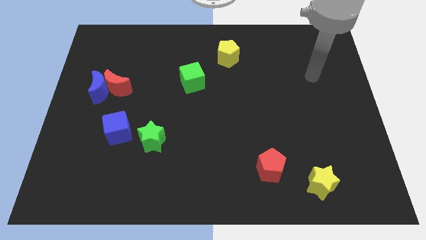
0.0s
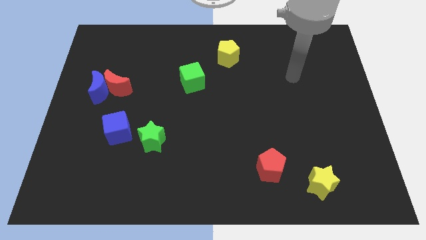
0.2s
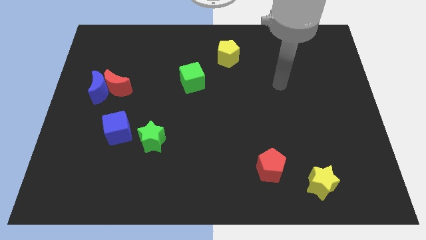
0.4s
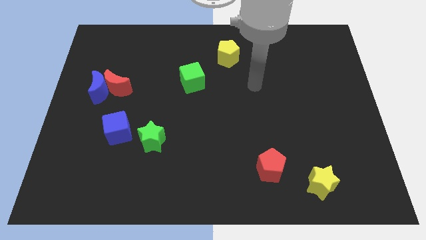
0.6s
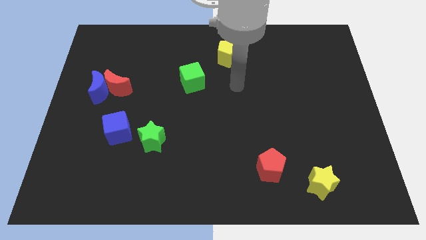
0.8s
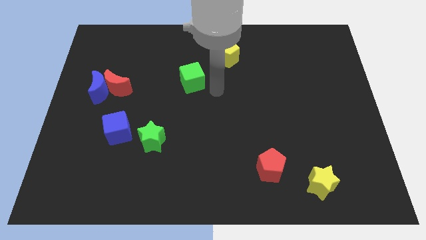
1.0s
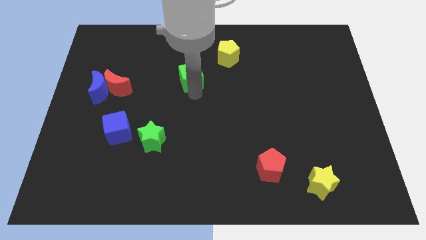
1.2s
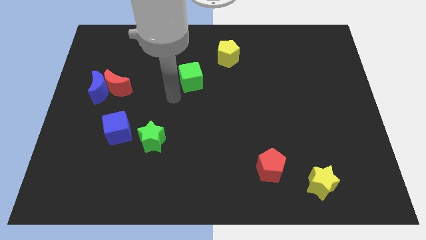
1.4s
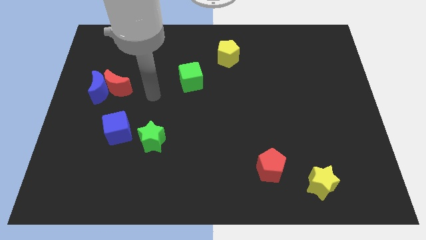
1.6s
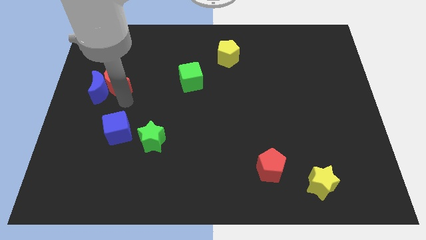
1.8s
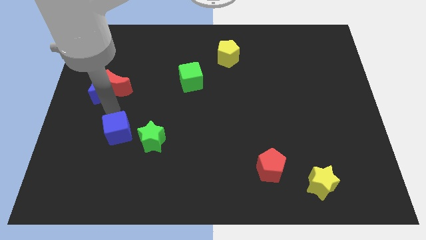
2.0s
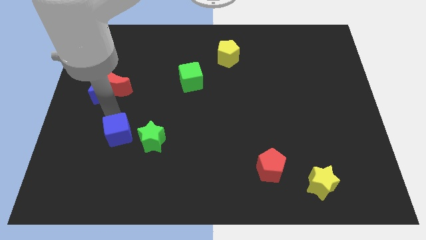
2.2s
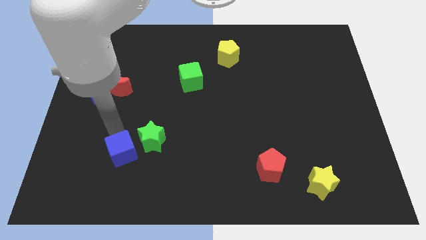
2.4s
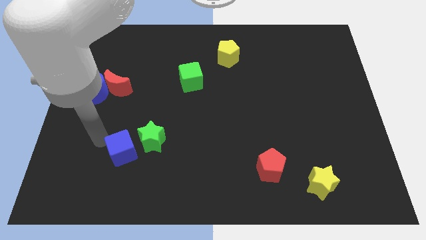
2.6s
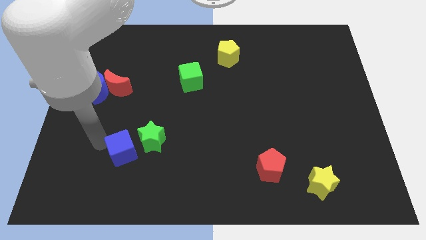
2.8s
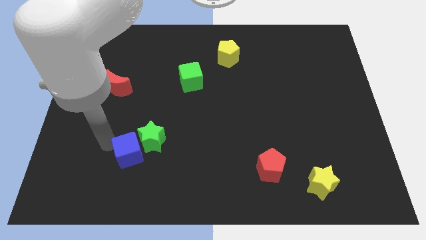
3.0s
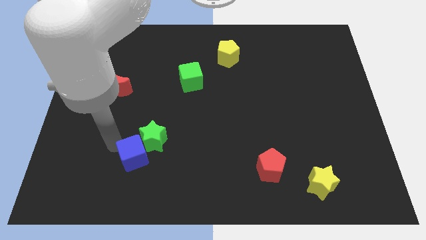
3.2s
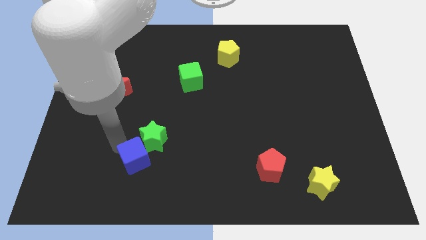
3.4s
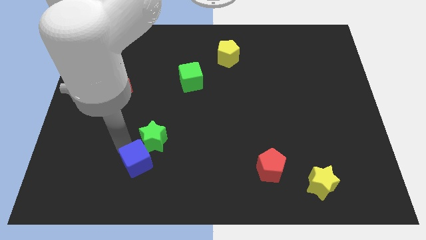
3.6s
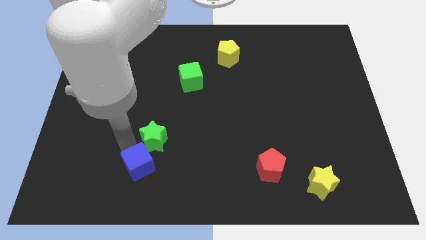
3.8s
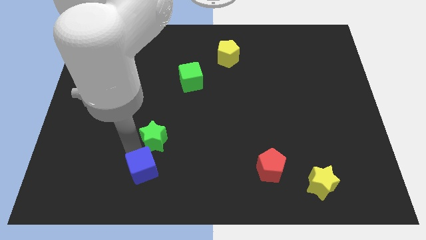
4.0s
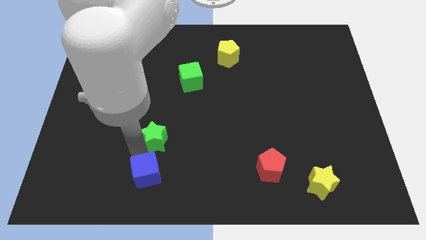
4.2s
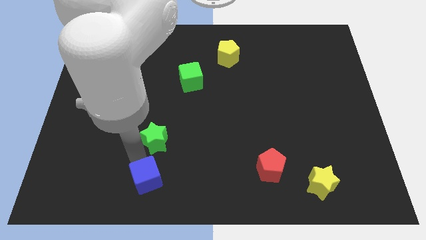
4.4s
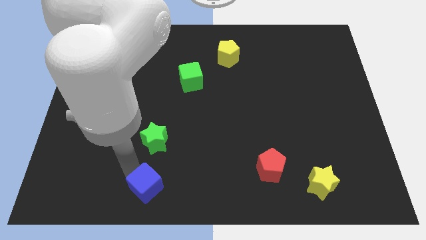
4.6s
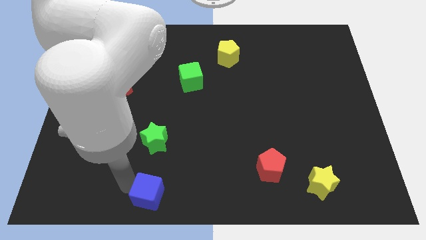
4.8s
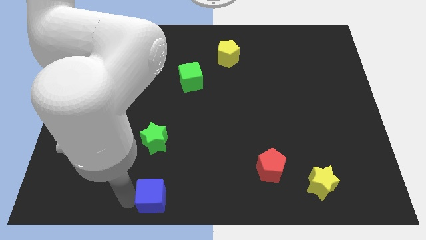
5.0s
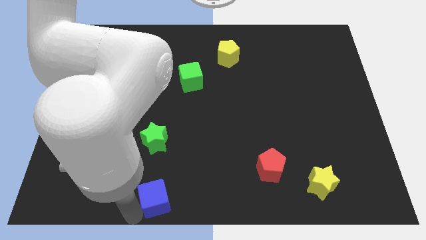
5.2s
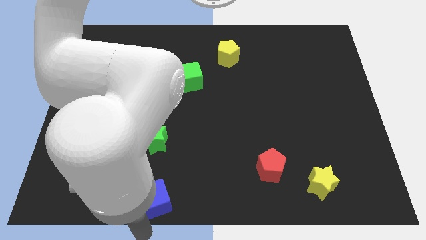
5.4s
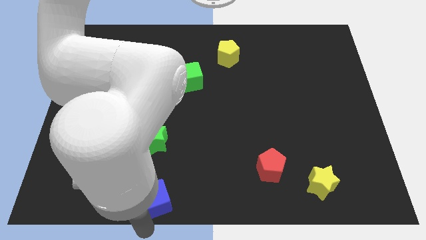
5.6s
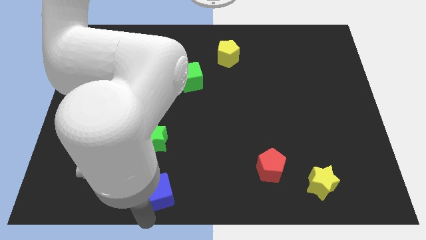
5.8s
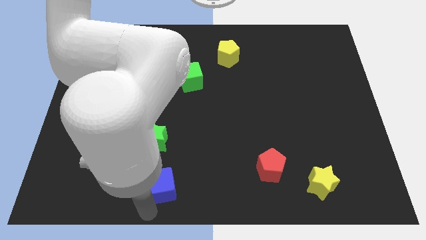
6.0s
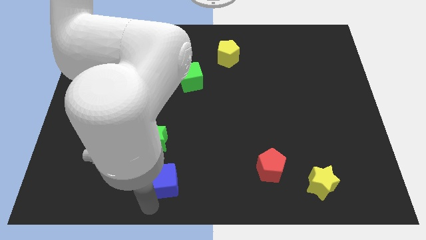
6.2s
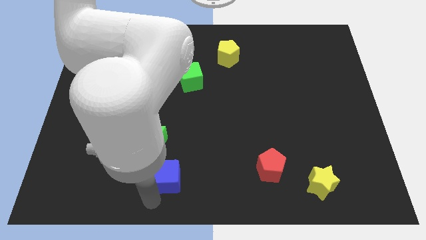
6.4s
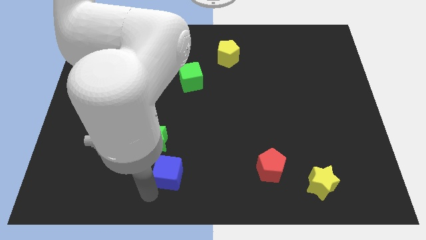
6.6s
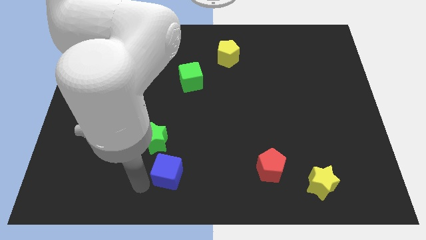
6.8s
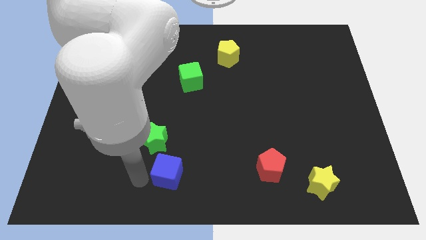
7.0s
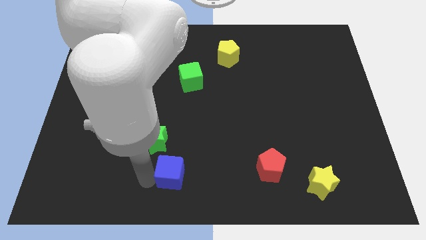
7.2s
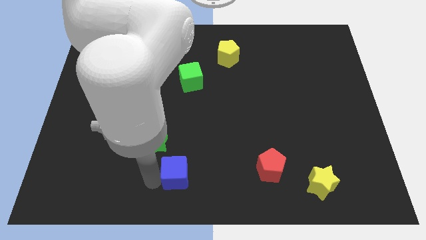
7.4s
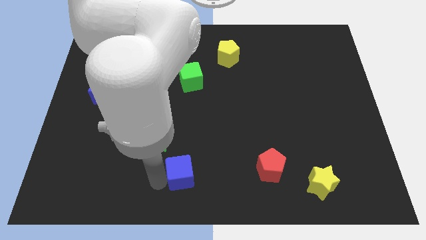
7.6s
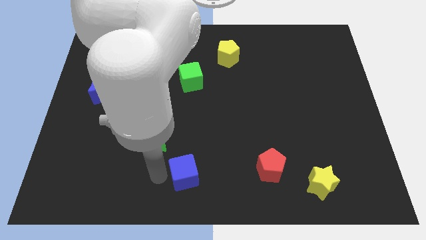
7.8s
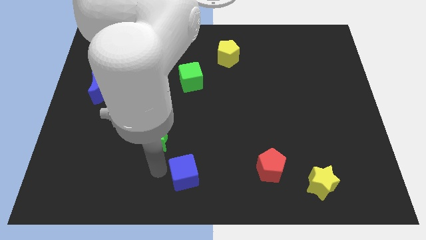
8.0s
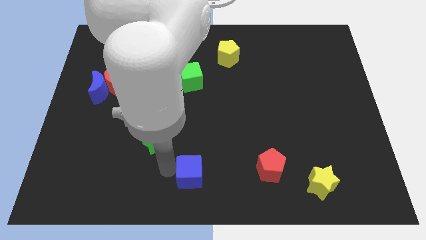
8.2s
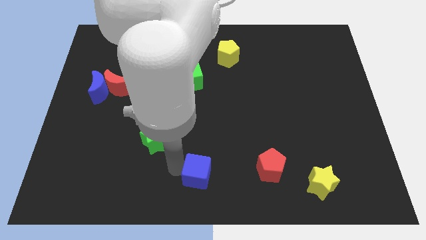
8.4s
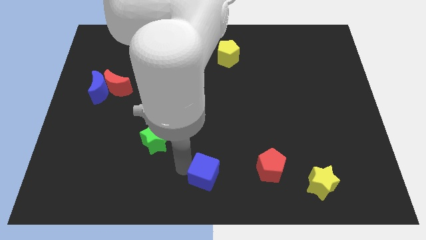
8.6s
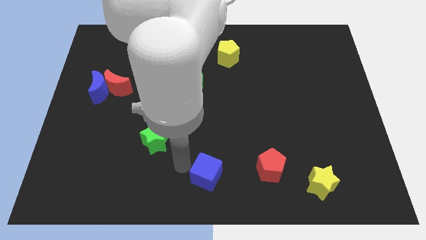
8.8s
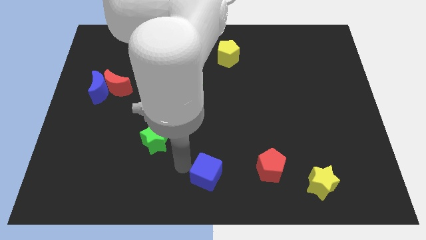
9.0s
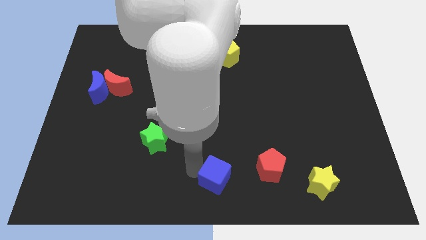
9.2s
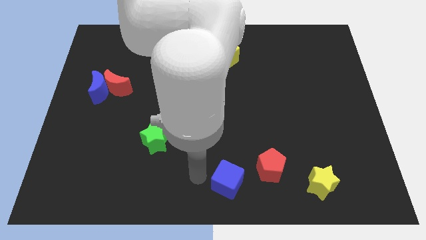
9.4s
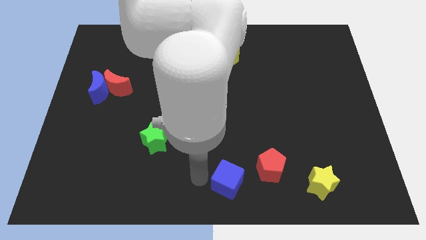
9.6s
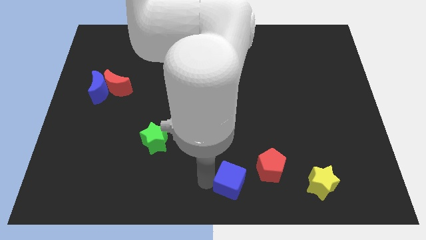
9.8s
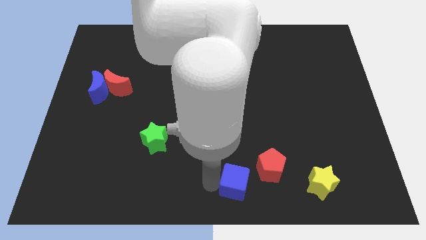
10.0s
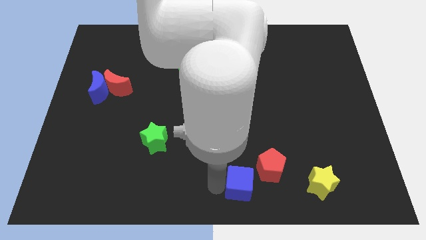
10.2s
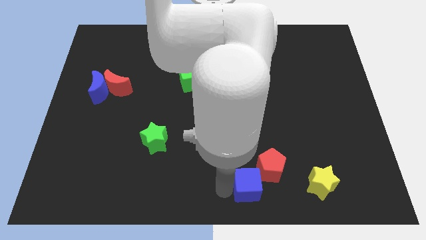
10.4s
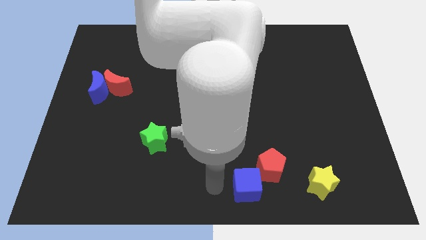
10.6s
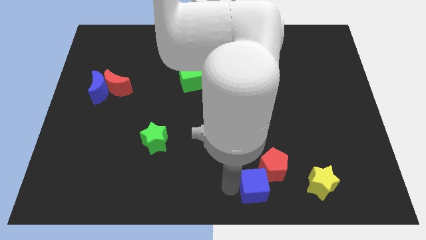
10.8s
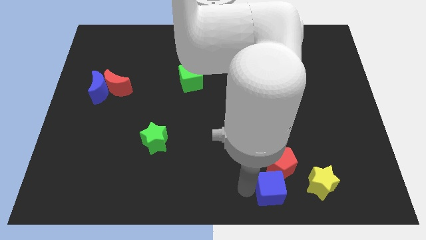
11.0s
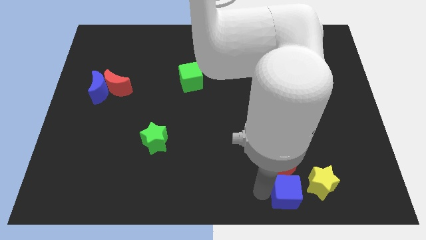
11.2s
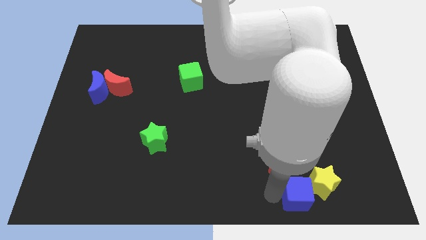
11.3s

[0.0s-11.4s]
put the blue cube next to the yellow star

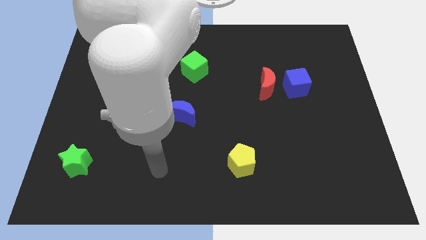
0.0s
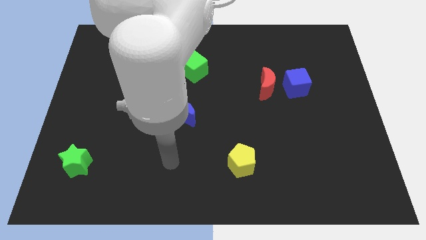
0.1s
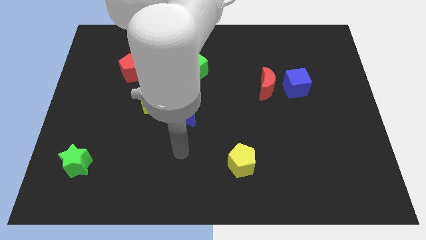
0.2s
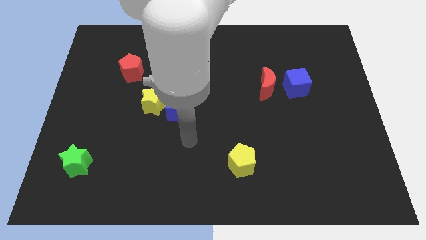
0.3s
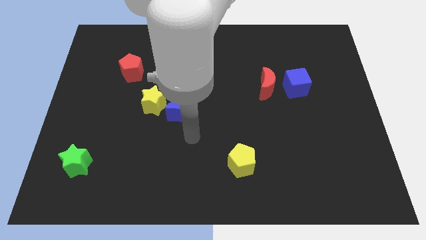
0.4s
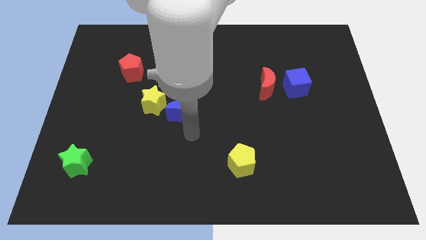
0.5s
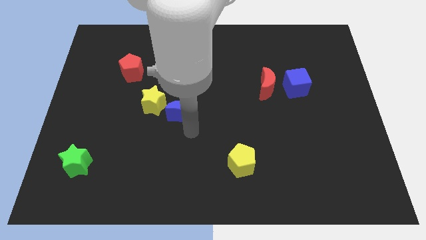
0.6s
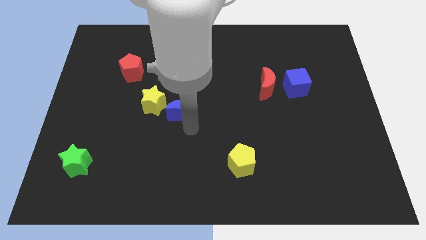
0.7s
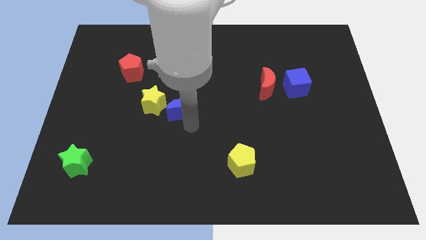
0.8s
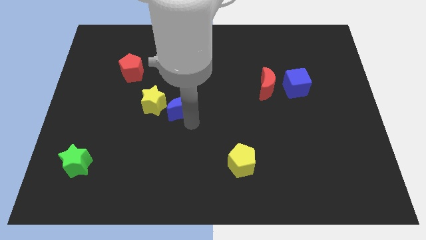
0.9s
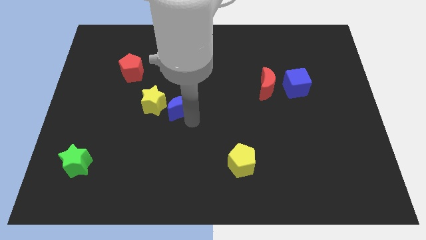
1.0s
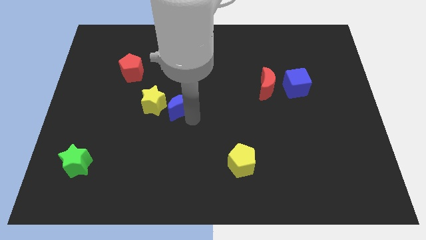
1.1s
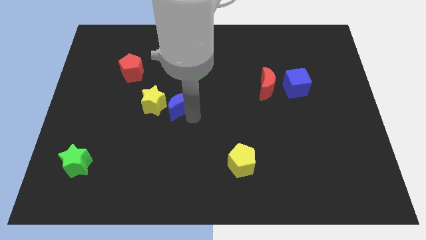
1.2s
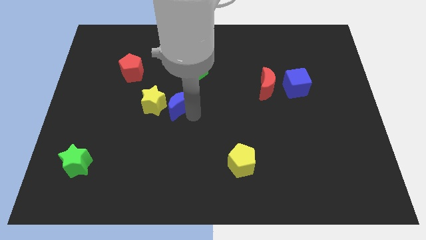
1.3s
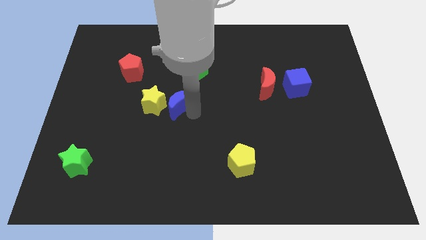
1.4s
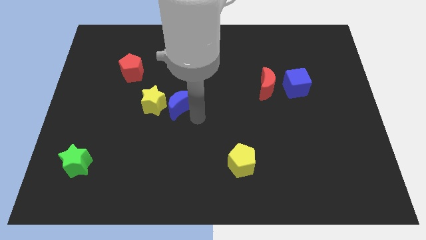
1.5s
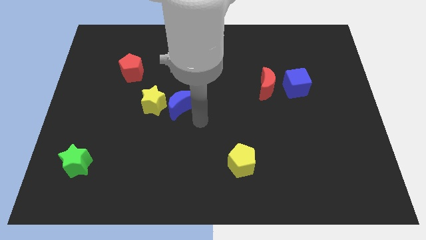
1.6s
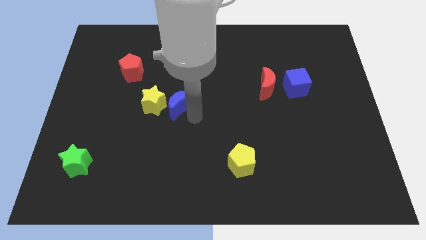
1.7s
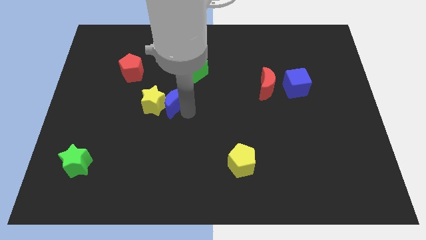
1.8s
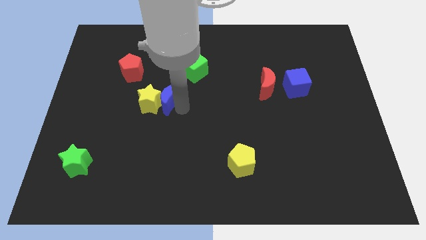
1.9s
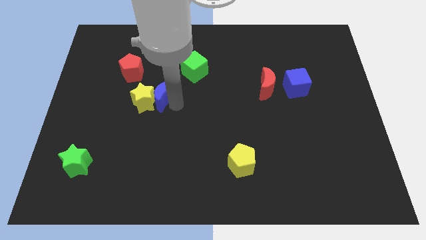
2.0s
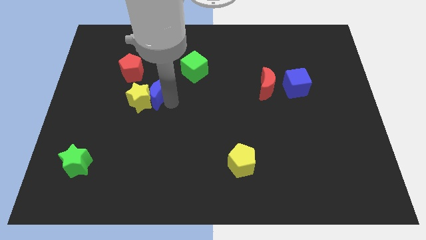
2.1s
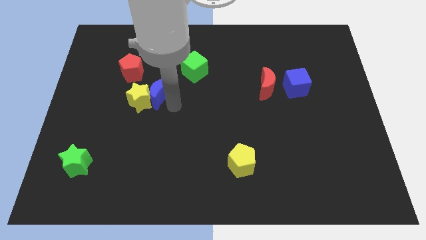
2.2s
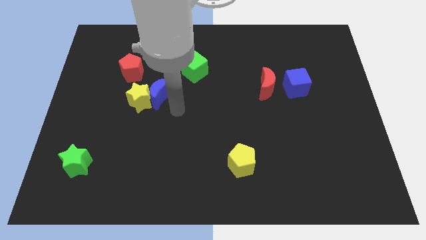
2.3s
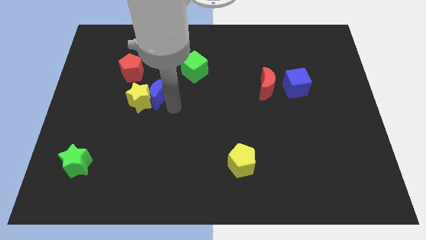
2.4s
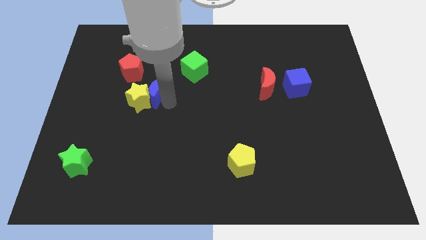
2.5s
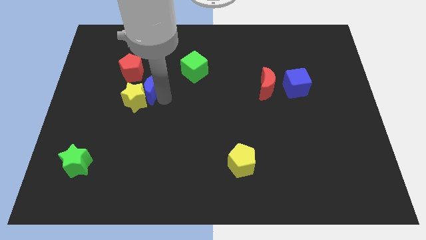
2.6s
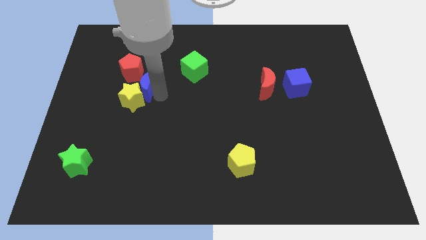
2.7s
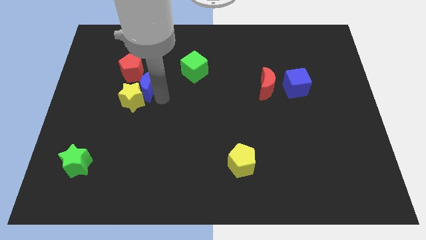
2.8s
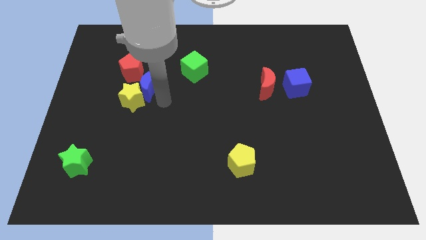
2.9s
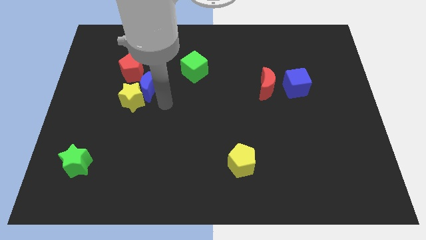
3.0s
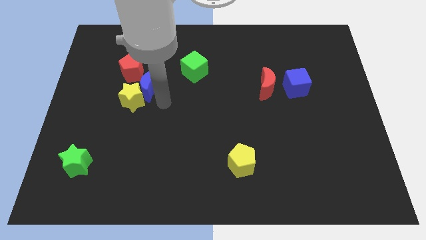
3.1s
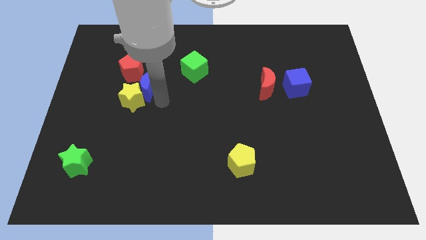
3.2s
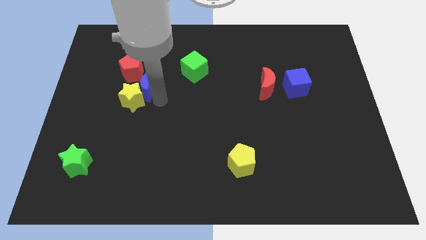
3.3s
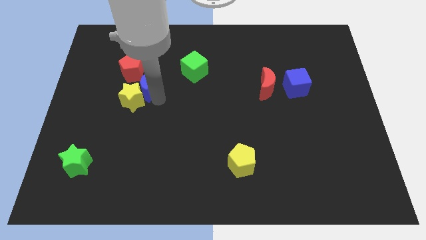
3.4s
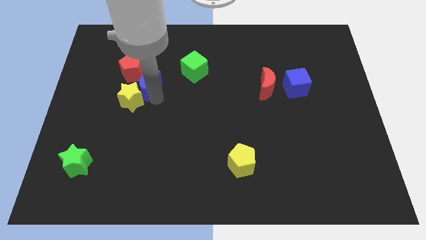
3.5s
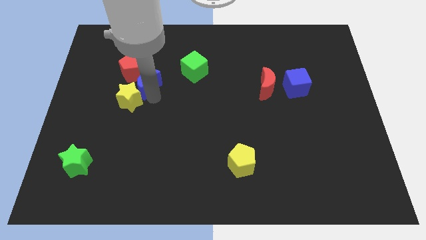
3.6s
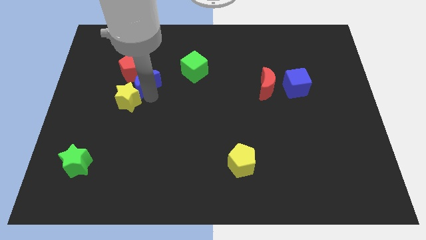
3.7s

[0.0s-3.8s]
move the blue moon next to the red pentagon
